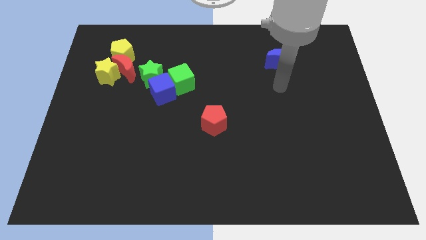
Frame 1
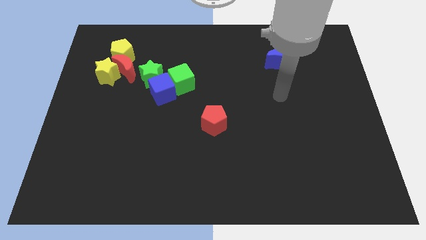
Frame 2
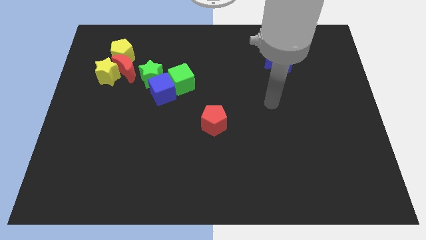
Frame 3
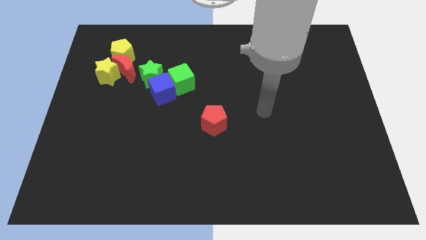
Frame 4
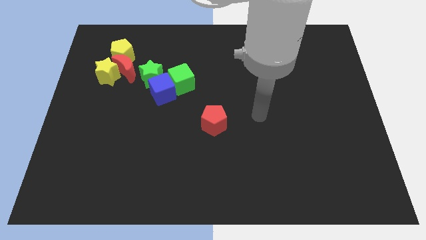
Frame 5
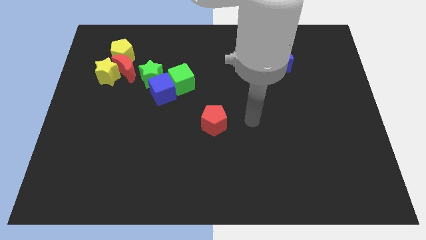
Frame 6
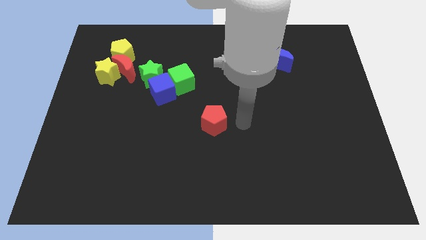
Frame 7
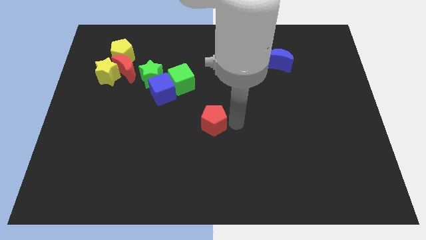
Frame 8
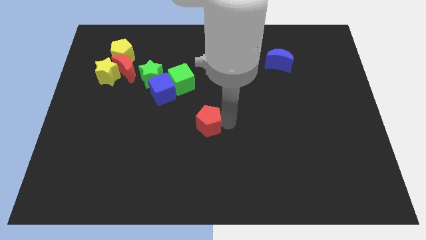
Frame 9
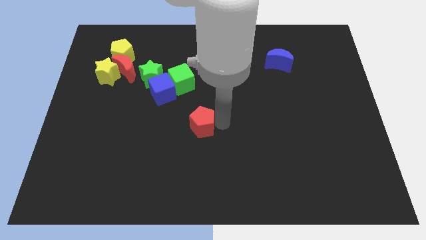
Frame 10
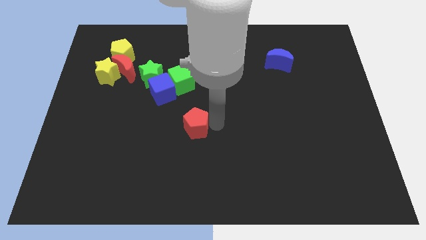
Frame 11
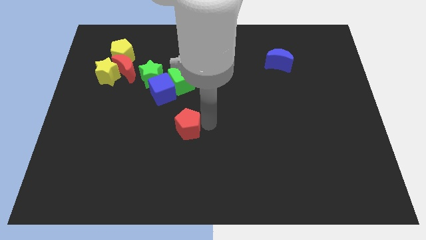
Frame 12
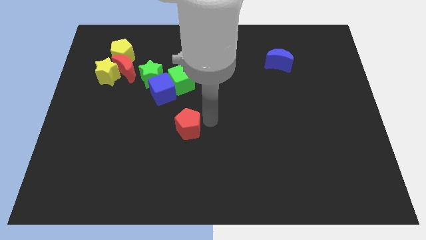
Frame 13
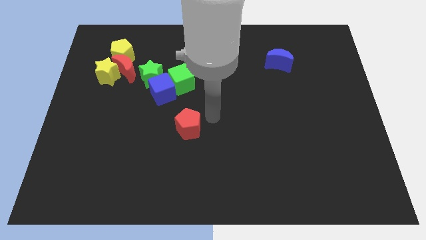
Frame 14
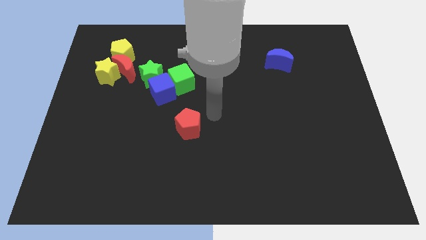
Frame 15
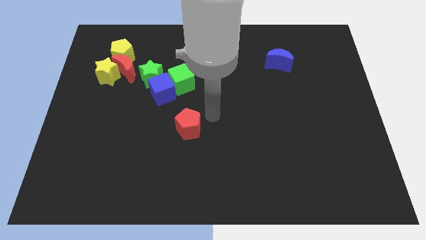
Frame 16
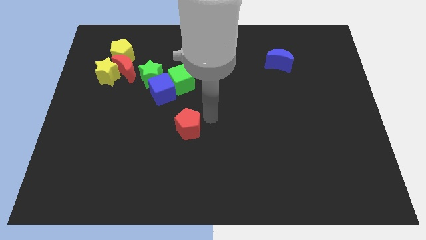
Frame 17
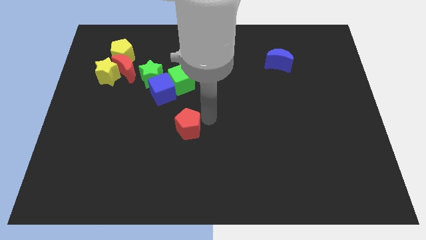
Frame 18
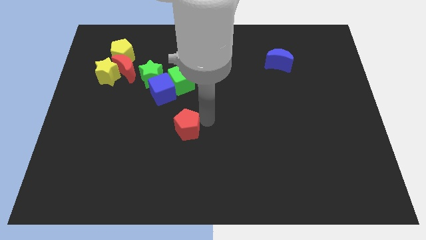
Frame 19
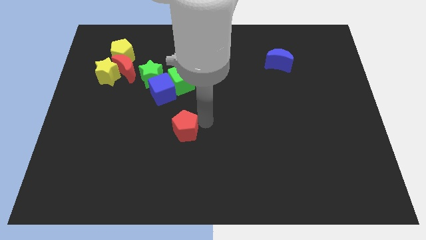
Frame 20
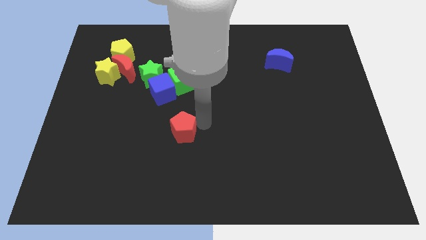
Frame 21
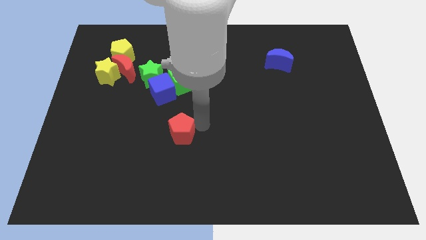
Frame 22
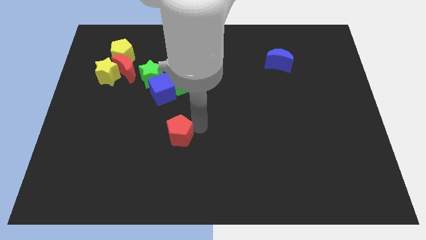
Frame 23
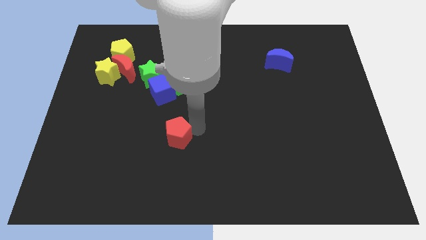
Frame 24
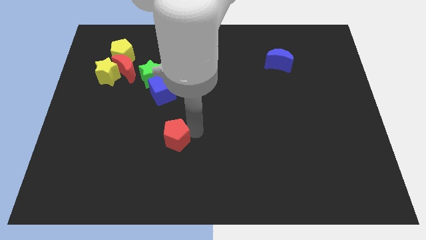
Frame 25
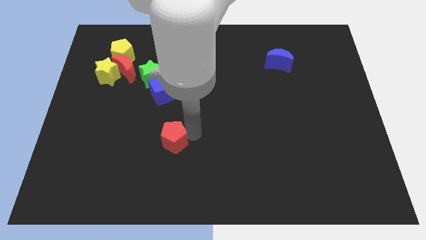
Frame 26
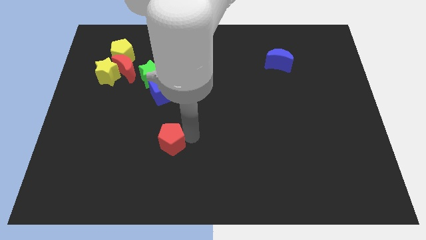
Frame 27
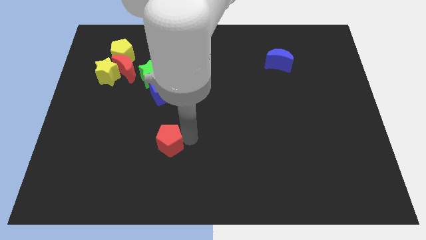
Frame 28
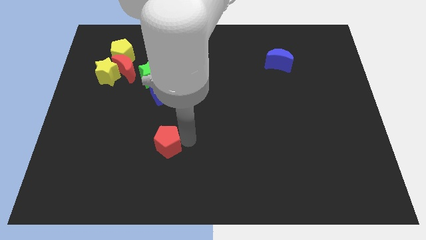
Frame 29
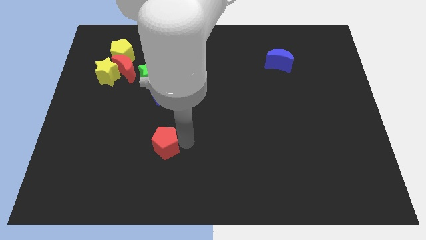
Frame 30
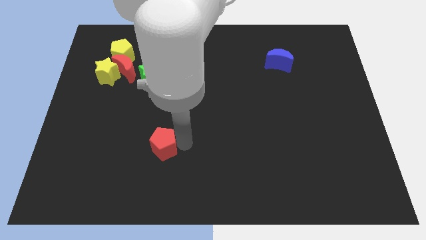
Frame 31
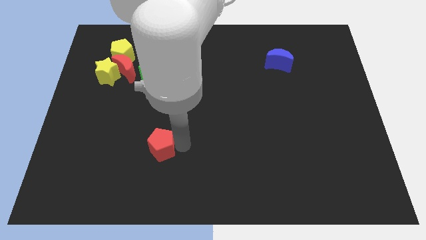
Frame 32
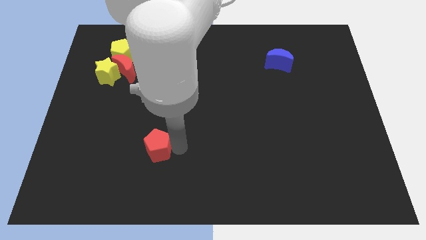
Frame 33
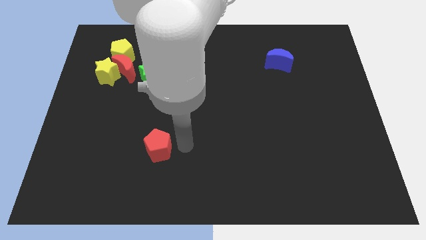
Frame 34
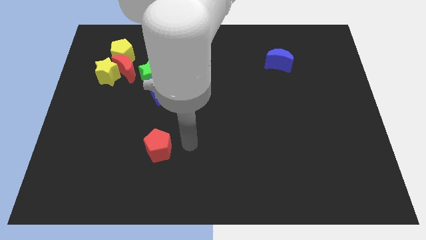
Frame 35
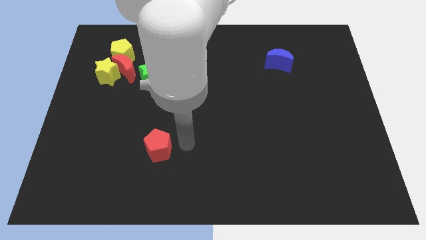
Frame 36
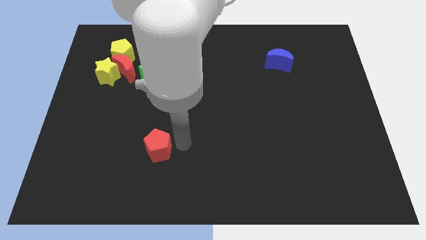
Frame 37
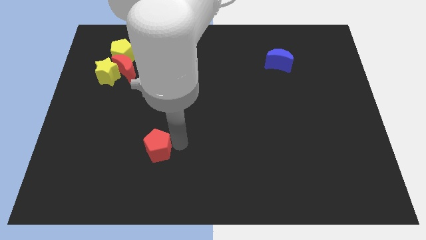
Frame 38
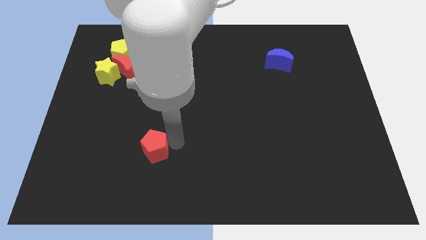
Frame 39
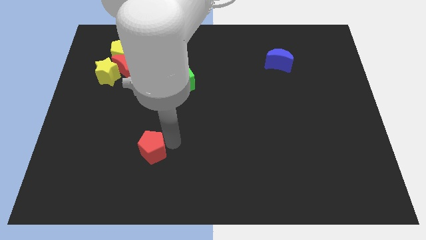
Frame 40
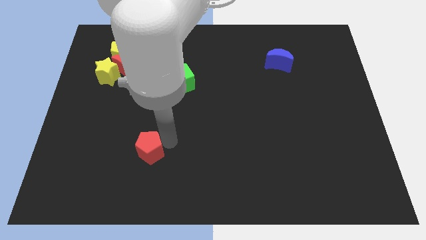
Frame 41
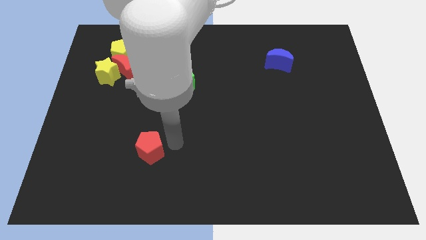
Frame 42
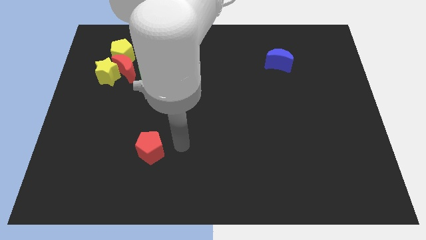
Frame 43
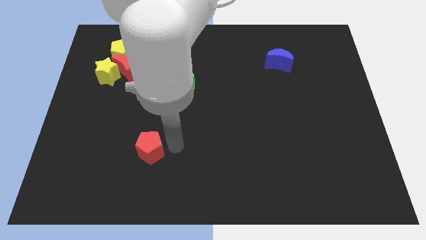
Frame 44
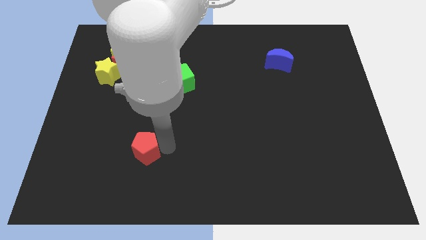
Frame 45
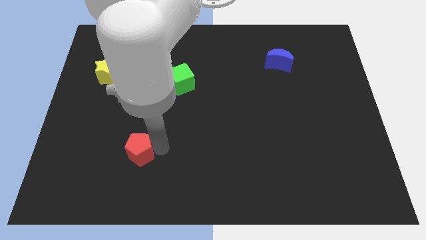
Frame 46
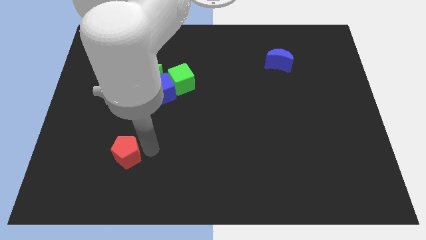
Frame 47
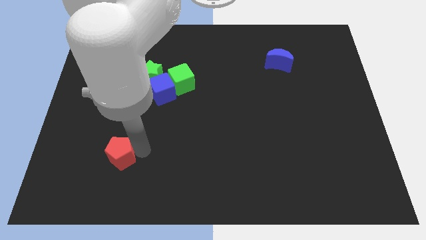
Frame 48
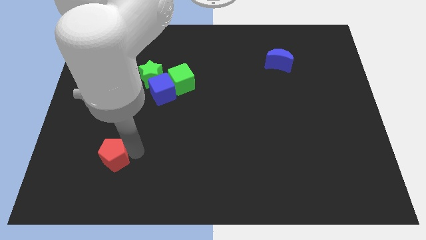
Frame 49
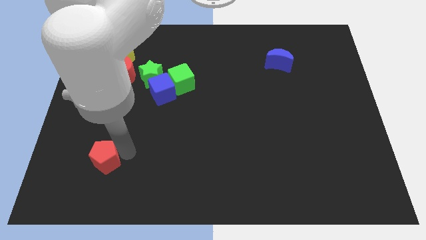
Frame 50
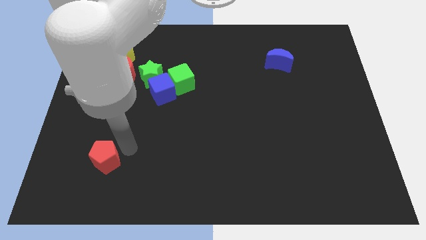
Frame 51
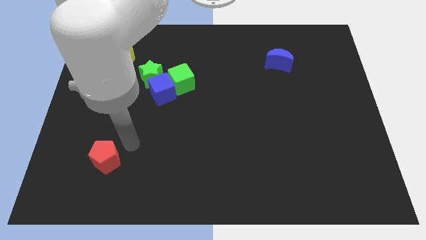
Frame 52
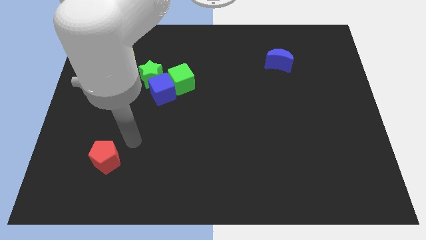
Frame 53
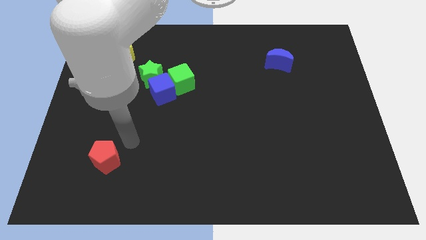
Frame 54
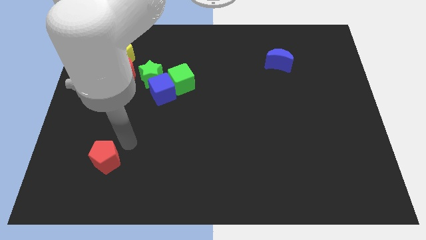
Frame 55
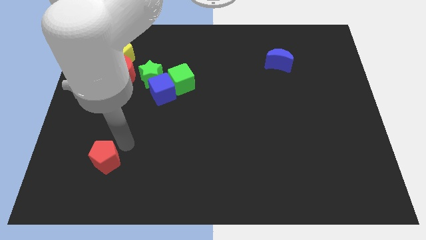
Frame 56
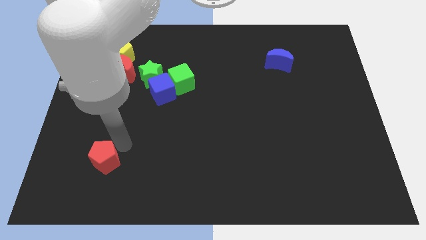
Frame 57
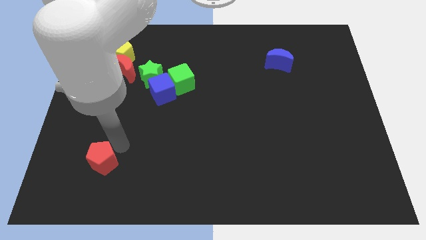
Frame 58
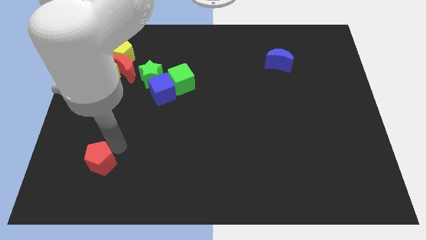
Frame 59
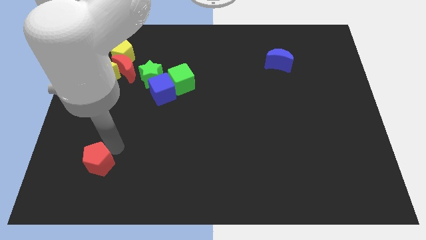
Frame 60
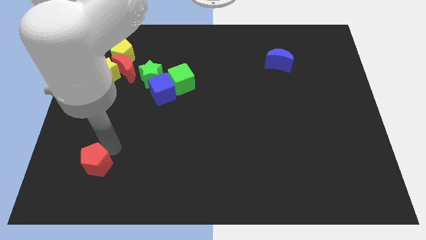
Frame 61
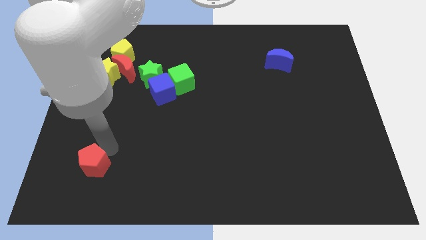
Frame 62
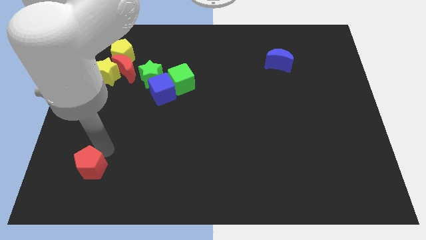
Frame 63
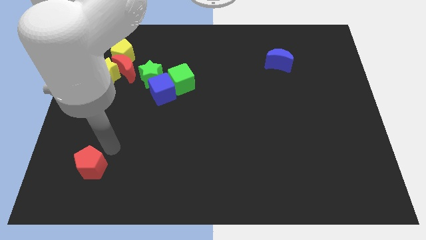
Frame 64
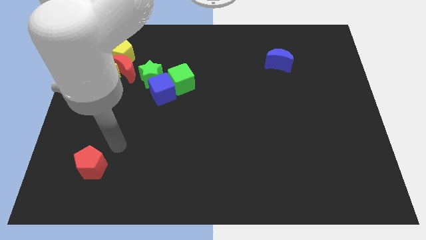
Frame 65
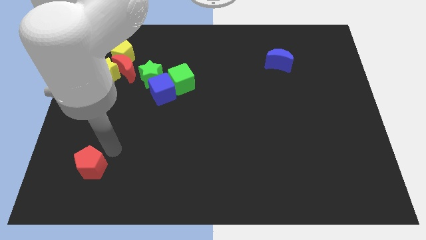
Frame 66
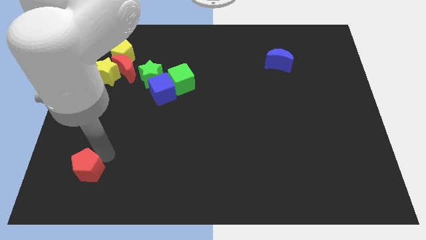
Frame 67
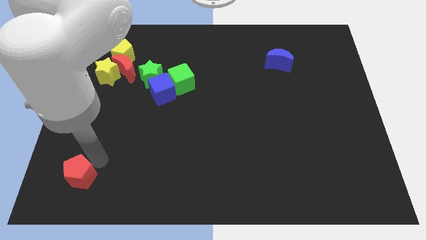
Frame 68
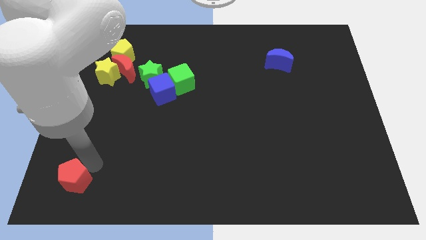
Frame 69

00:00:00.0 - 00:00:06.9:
move the red pentagon to the bottom left corner
